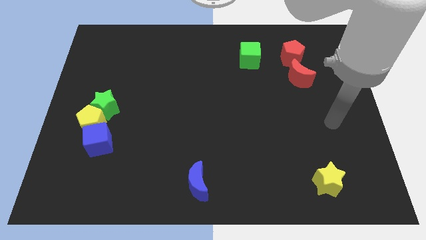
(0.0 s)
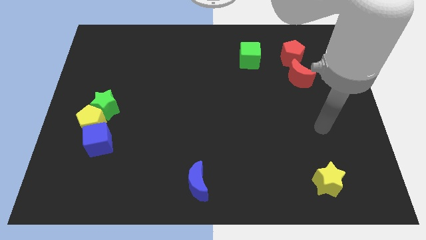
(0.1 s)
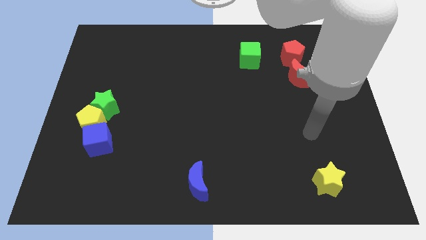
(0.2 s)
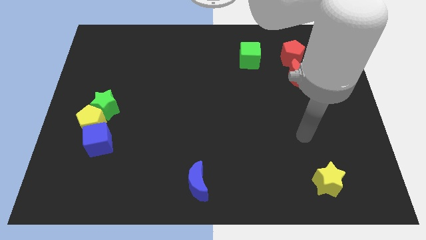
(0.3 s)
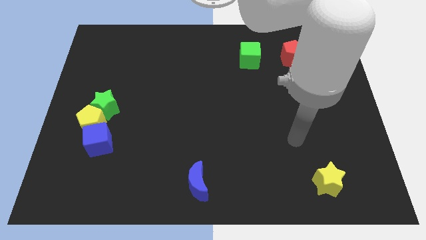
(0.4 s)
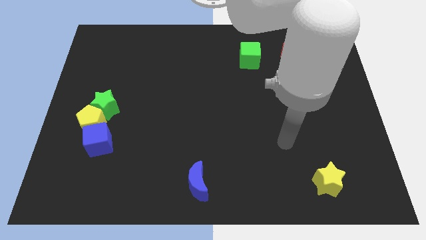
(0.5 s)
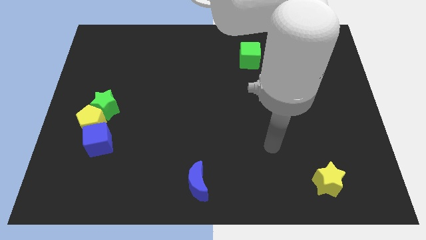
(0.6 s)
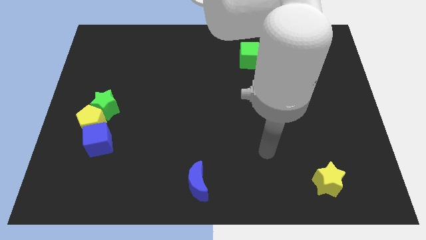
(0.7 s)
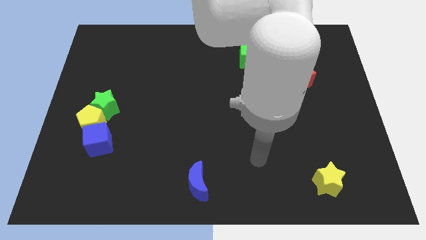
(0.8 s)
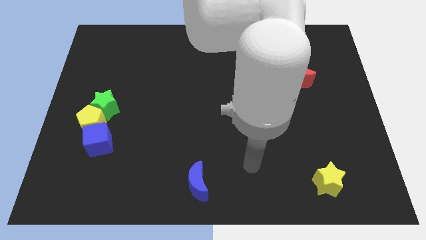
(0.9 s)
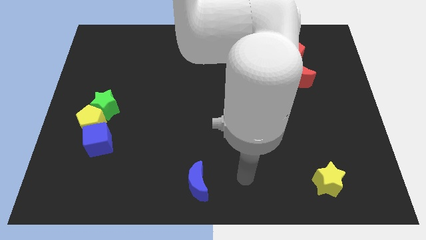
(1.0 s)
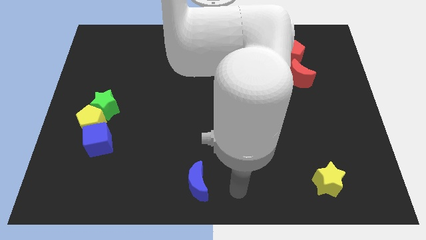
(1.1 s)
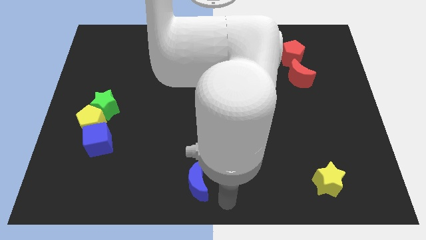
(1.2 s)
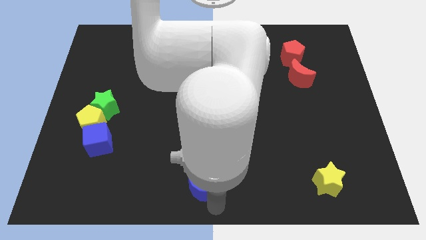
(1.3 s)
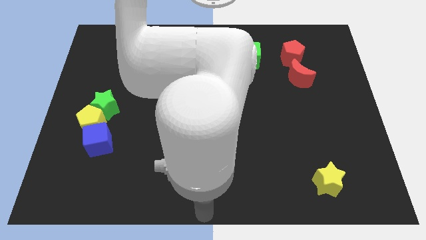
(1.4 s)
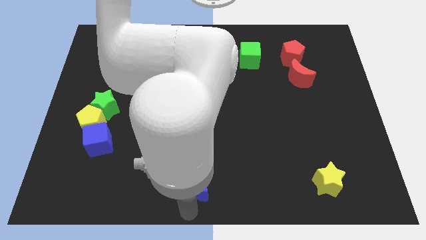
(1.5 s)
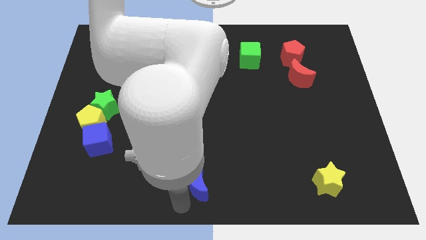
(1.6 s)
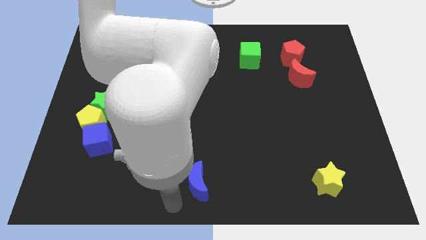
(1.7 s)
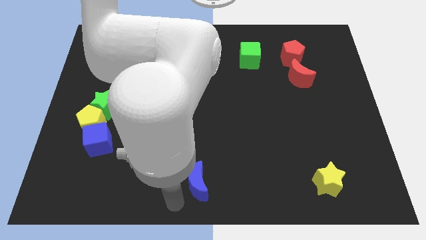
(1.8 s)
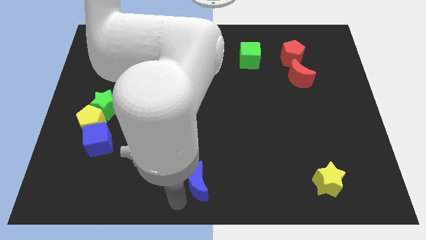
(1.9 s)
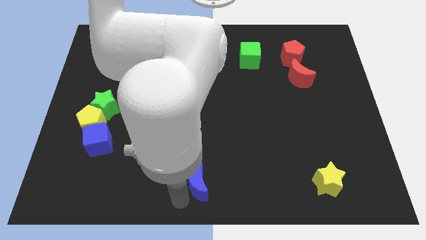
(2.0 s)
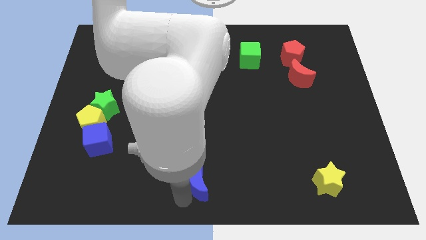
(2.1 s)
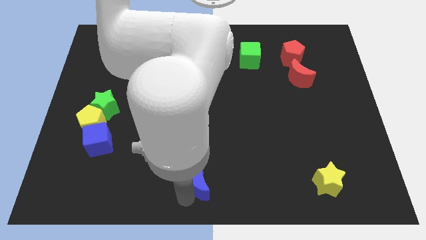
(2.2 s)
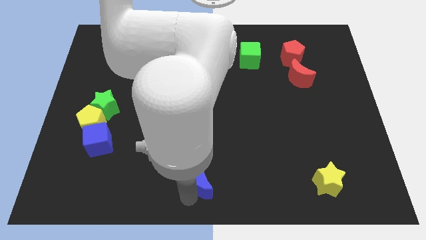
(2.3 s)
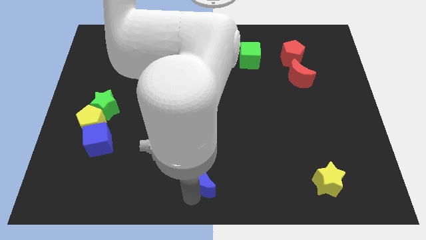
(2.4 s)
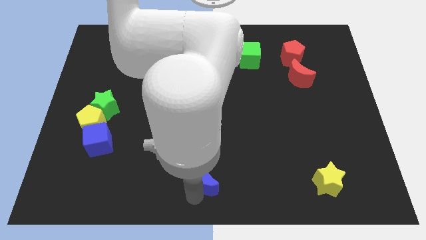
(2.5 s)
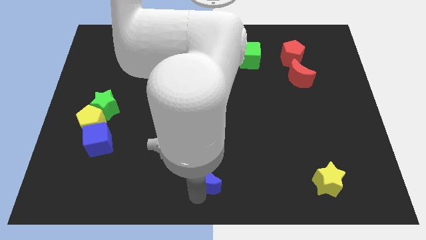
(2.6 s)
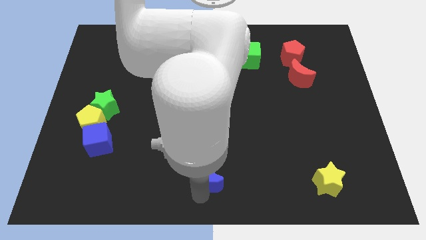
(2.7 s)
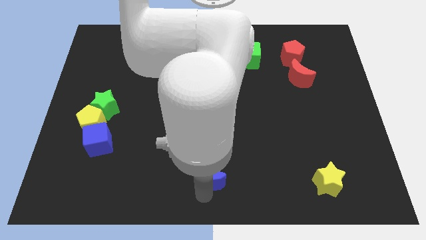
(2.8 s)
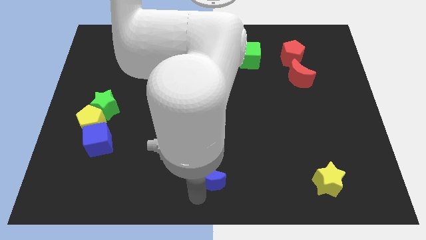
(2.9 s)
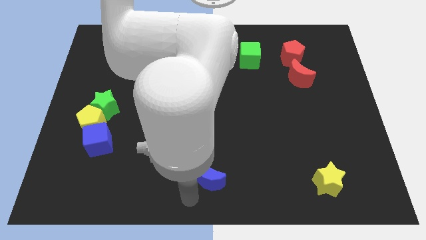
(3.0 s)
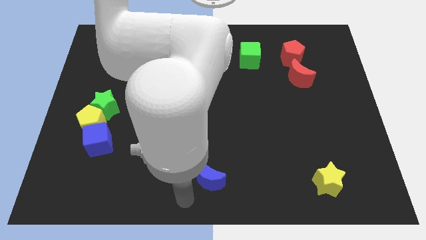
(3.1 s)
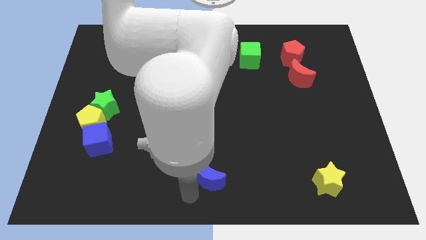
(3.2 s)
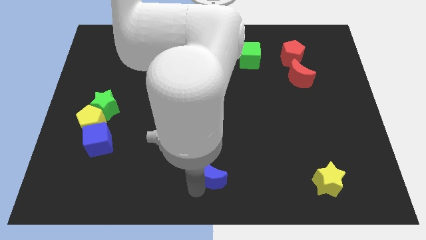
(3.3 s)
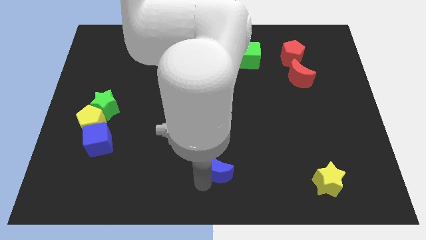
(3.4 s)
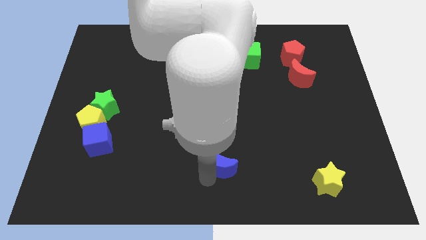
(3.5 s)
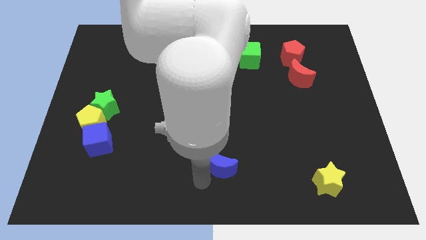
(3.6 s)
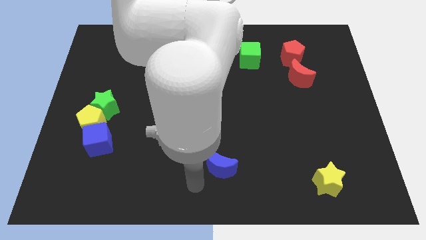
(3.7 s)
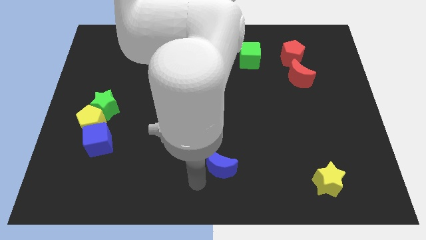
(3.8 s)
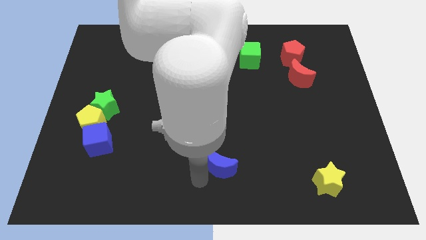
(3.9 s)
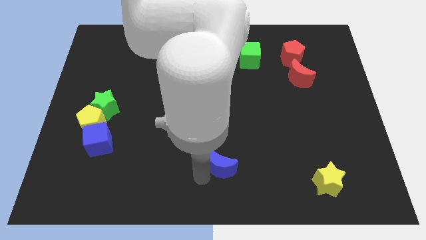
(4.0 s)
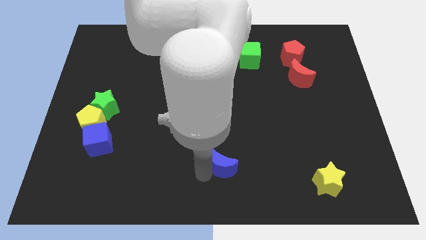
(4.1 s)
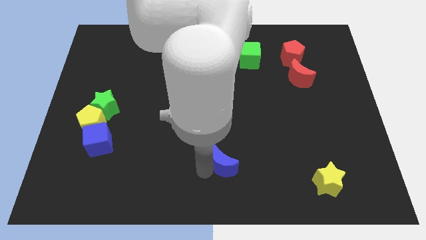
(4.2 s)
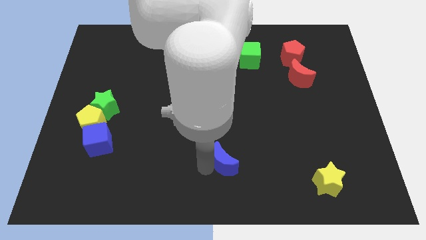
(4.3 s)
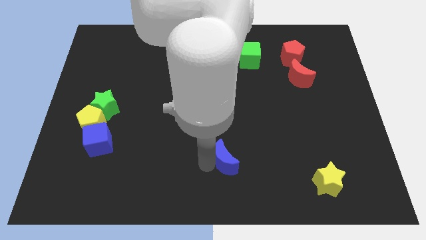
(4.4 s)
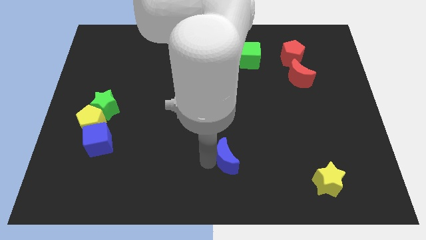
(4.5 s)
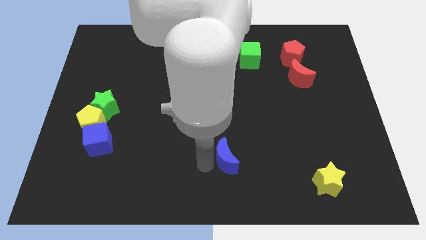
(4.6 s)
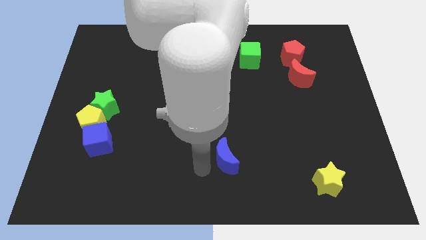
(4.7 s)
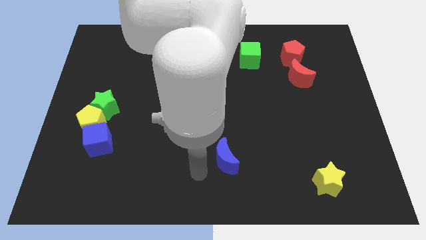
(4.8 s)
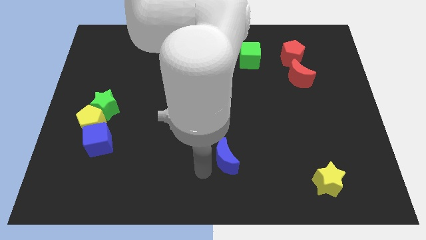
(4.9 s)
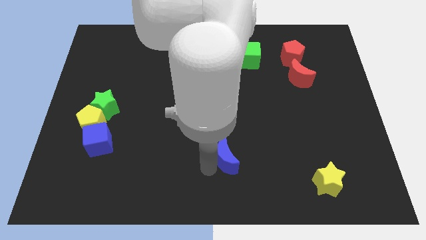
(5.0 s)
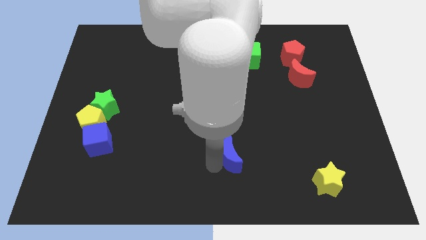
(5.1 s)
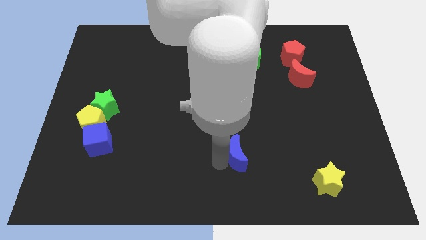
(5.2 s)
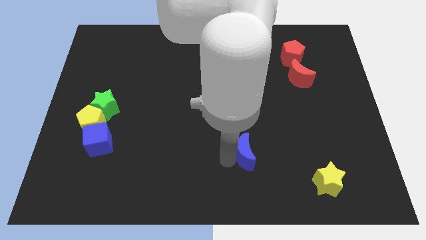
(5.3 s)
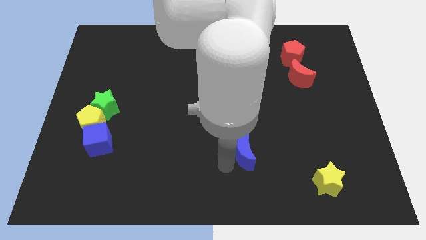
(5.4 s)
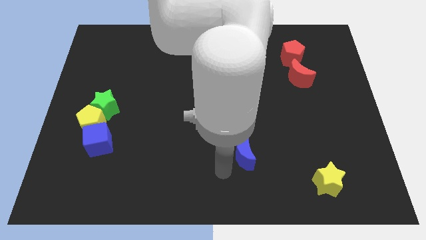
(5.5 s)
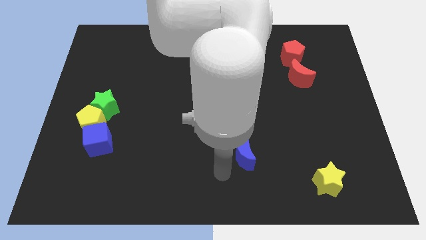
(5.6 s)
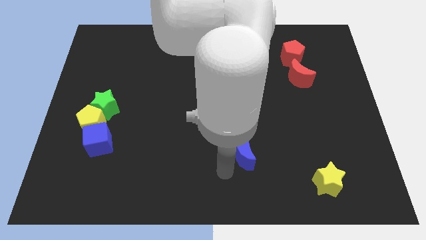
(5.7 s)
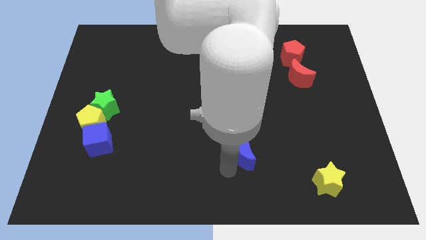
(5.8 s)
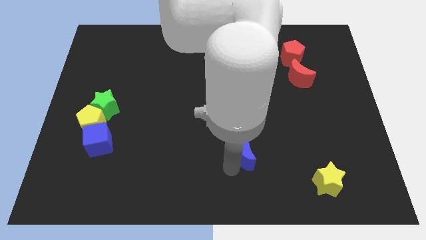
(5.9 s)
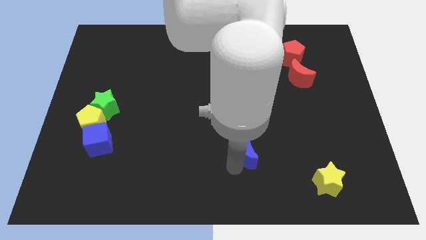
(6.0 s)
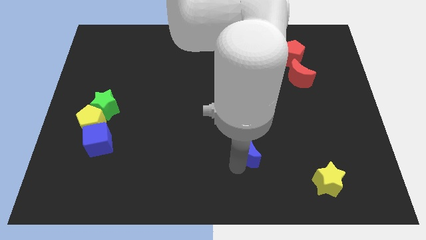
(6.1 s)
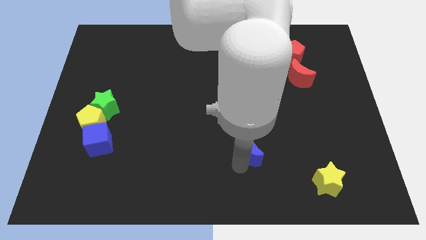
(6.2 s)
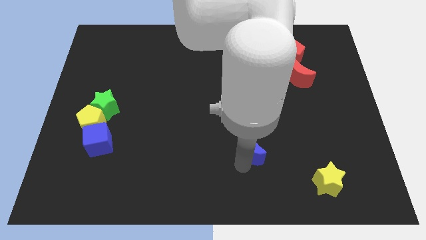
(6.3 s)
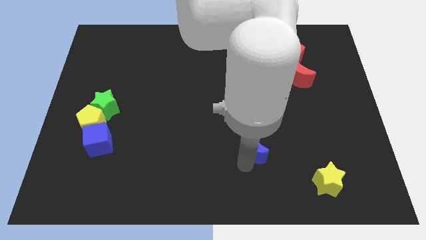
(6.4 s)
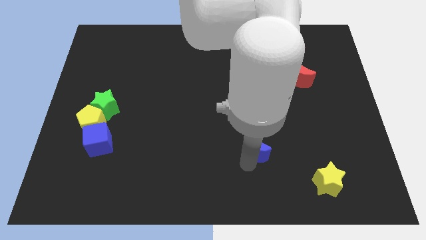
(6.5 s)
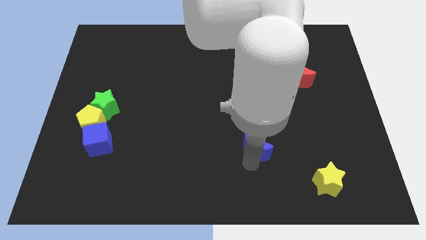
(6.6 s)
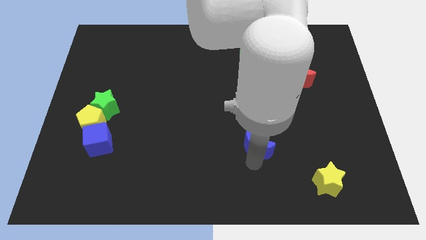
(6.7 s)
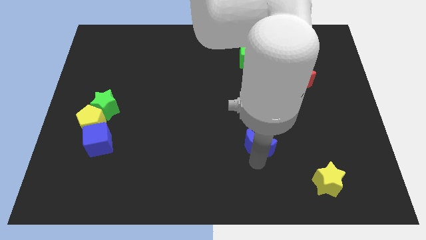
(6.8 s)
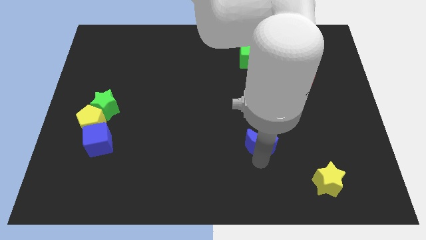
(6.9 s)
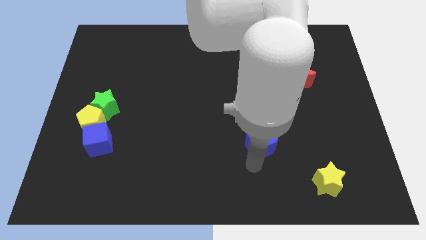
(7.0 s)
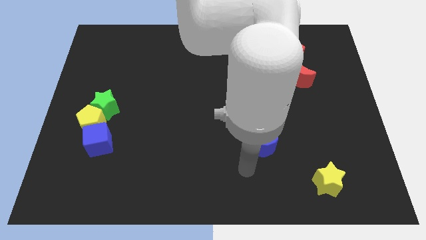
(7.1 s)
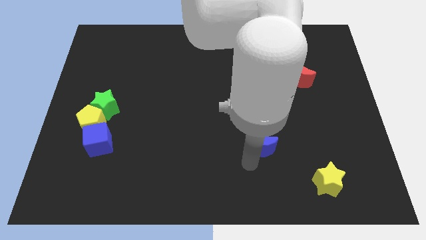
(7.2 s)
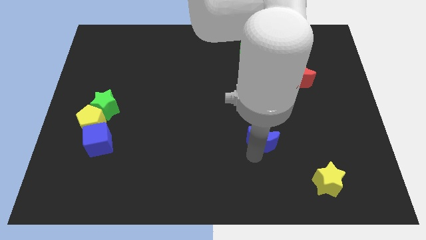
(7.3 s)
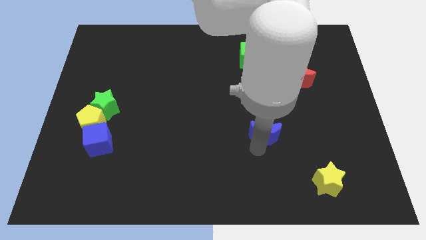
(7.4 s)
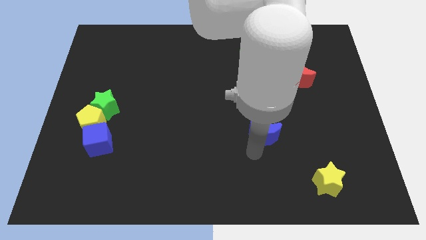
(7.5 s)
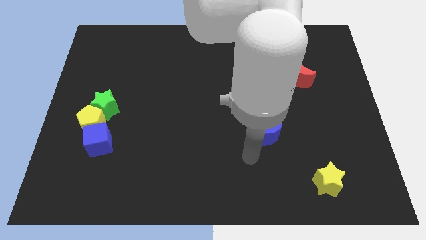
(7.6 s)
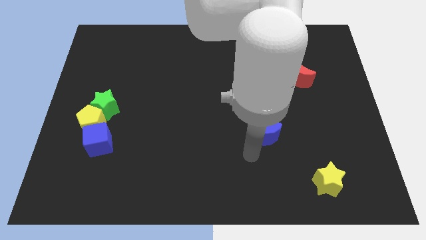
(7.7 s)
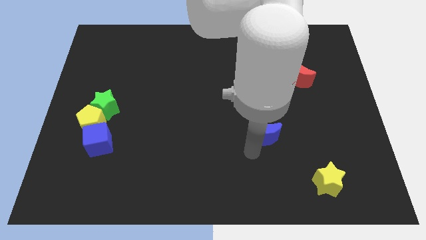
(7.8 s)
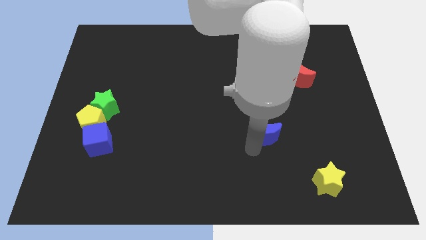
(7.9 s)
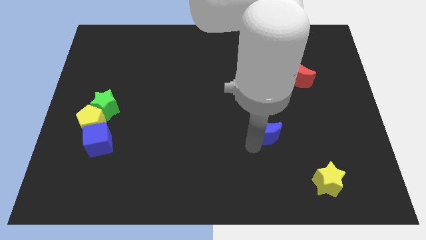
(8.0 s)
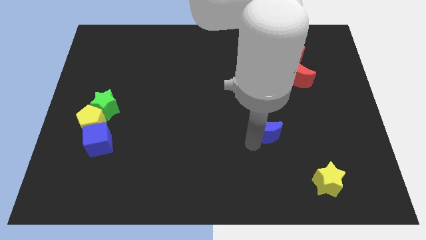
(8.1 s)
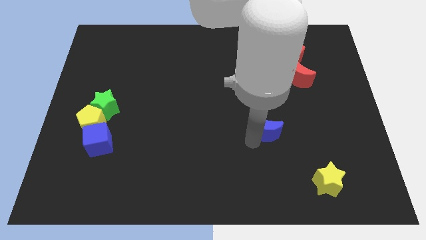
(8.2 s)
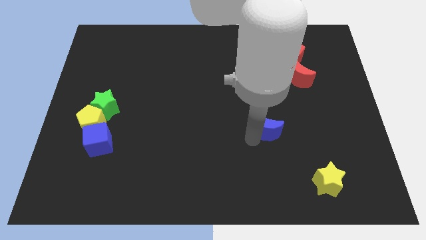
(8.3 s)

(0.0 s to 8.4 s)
slide the blue moon upwards and then to the right
